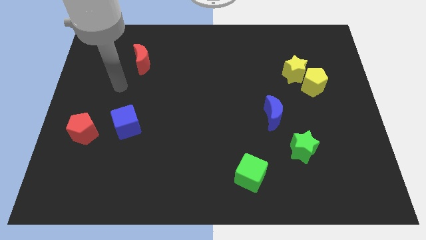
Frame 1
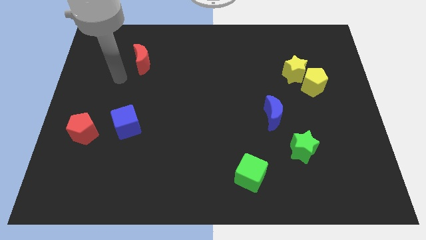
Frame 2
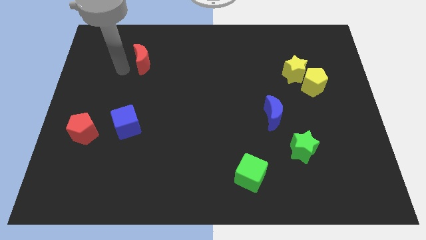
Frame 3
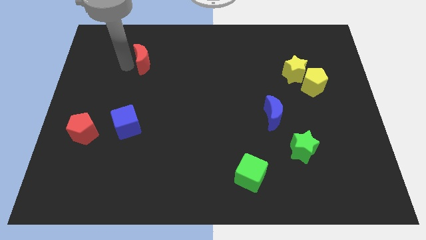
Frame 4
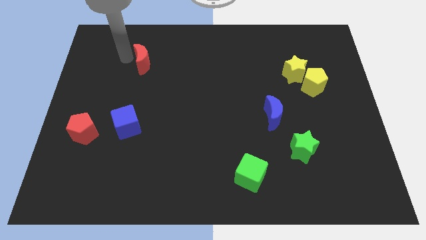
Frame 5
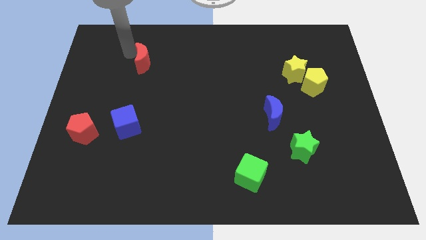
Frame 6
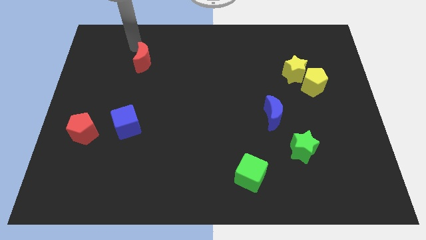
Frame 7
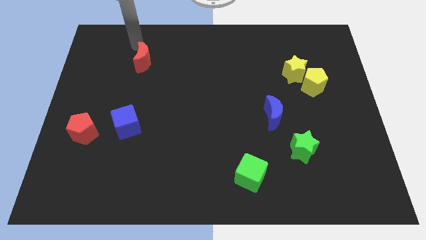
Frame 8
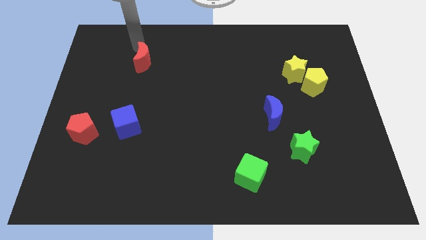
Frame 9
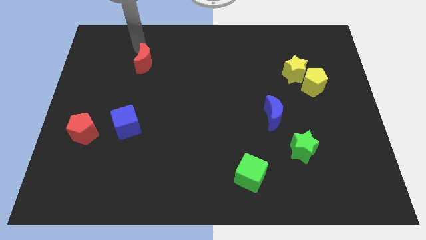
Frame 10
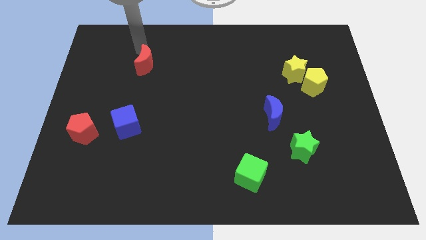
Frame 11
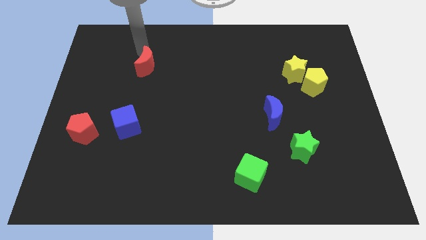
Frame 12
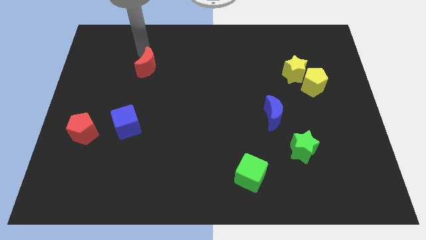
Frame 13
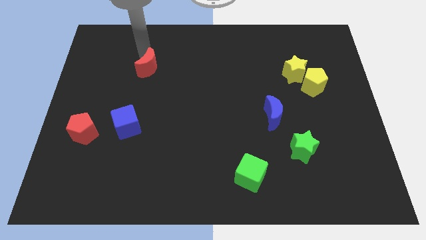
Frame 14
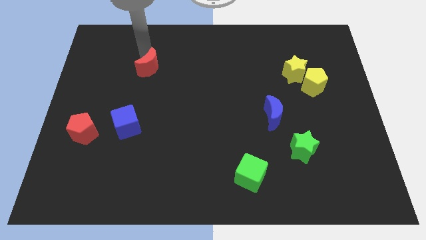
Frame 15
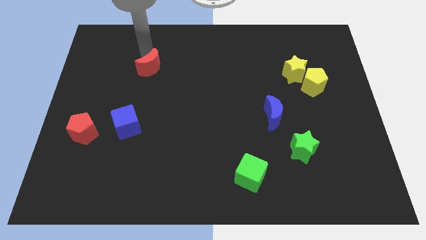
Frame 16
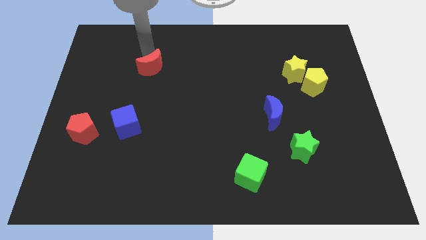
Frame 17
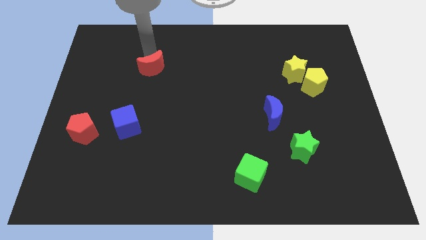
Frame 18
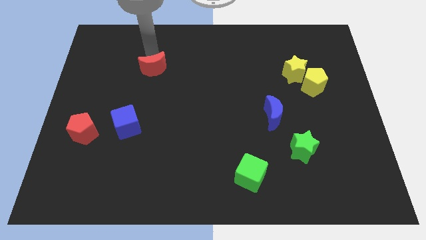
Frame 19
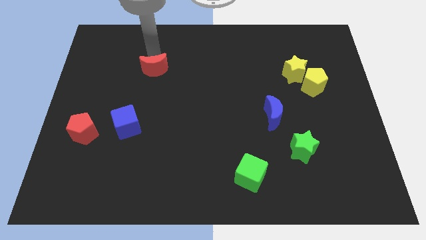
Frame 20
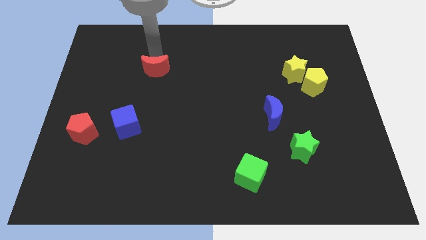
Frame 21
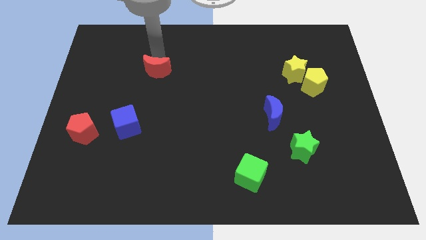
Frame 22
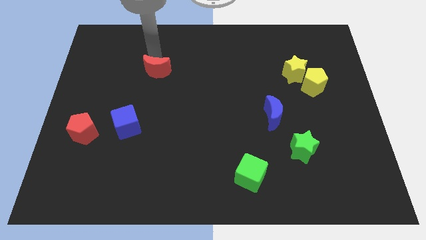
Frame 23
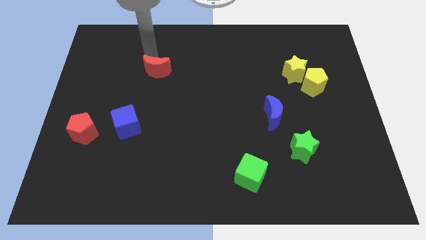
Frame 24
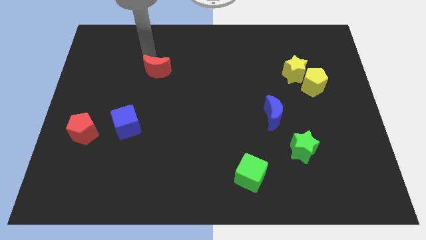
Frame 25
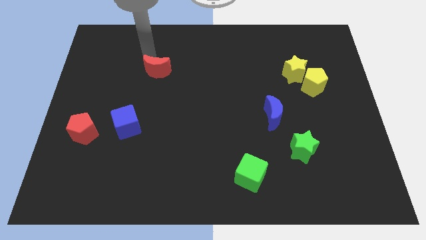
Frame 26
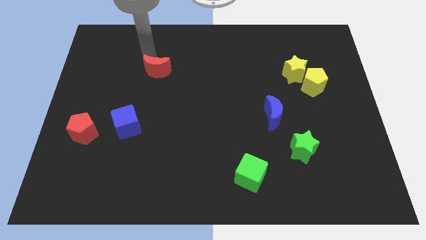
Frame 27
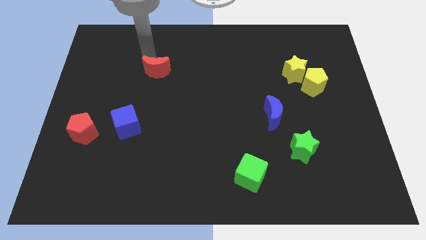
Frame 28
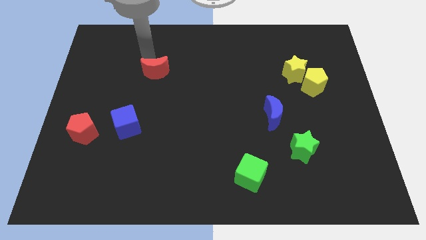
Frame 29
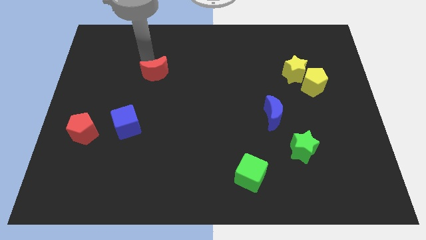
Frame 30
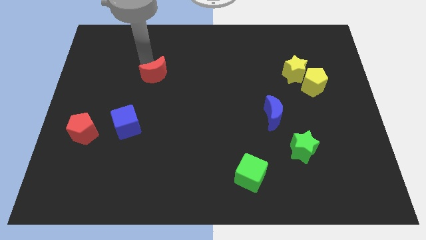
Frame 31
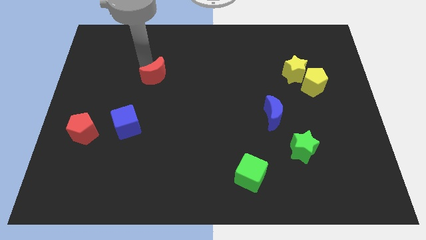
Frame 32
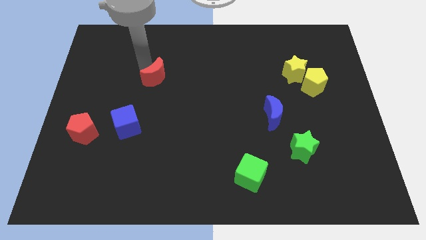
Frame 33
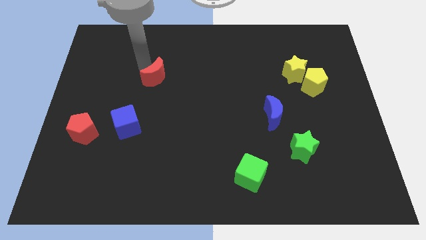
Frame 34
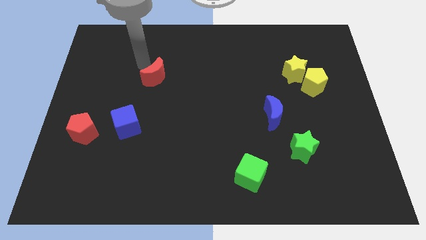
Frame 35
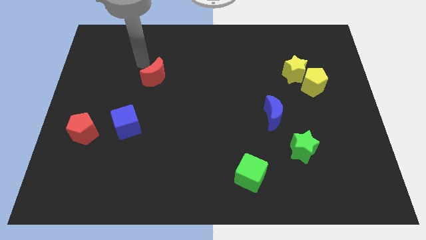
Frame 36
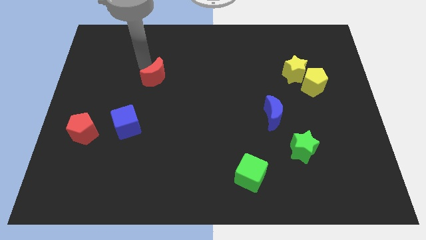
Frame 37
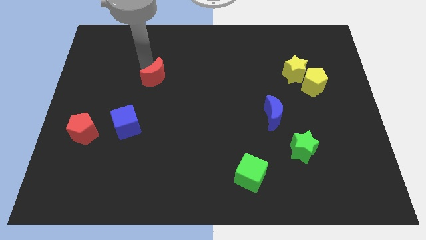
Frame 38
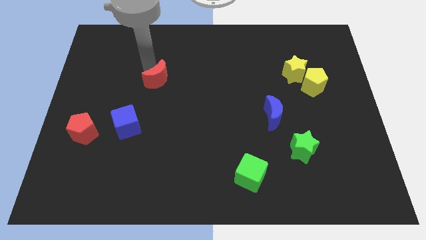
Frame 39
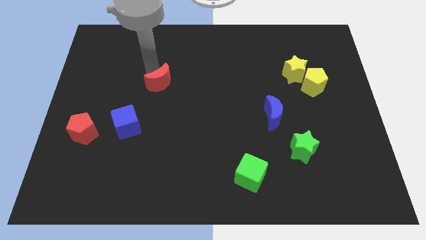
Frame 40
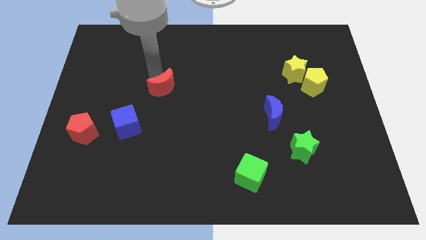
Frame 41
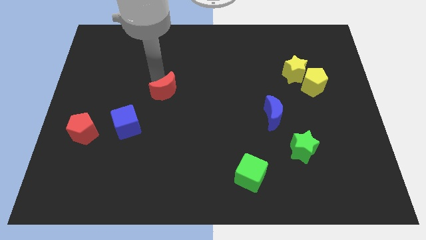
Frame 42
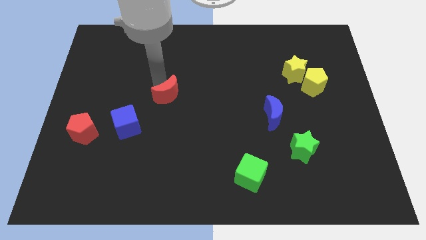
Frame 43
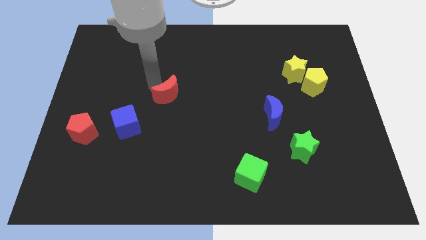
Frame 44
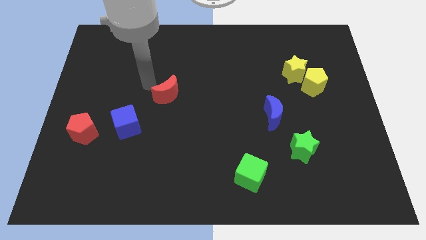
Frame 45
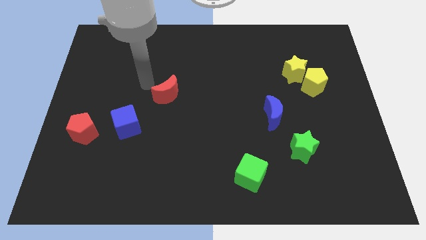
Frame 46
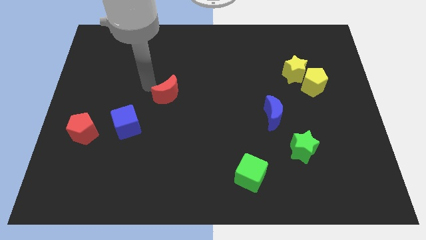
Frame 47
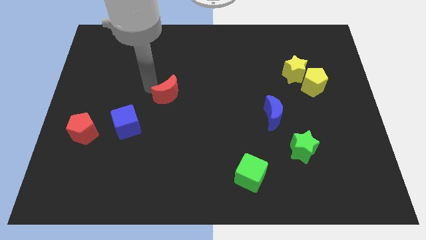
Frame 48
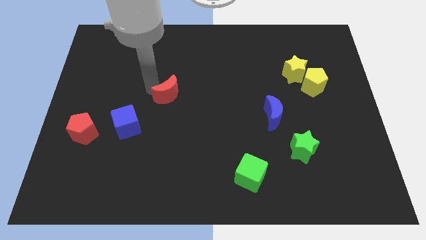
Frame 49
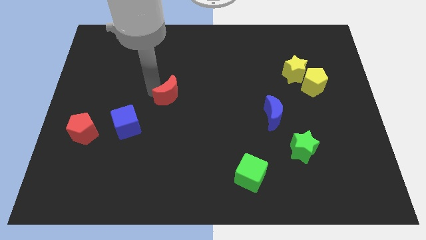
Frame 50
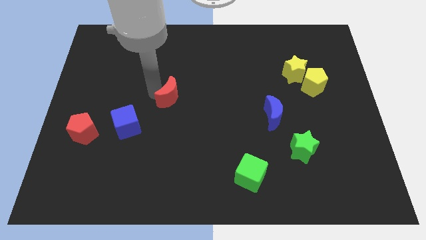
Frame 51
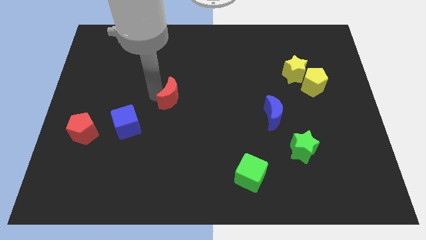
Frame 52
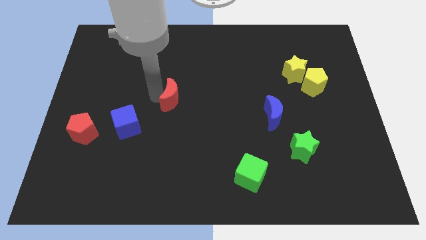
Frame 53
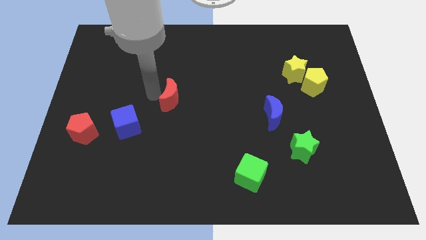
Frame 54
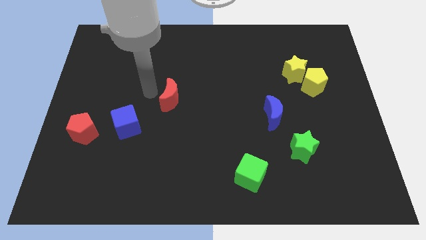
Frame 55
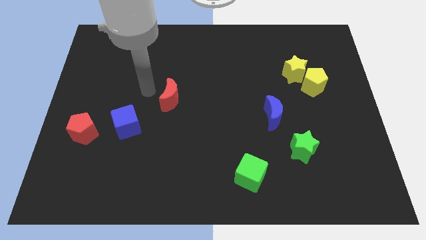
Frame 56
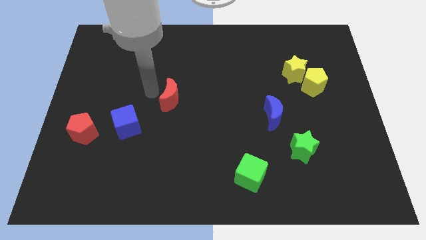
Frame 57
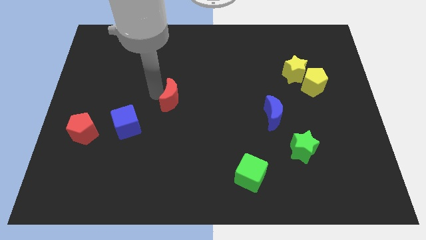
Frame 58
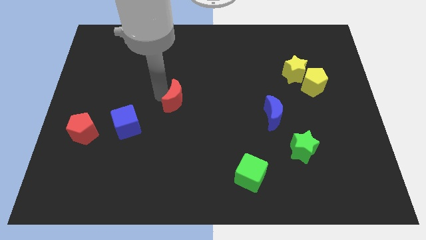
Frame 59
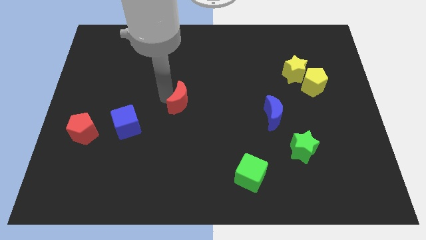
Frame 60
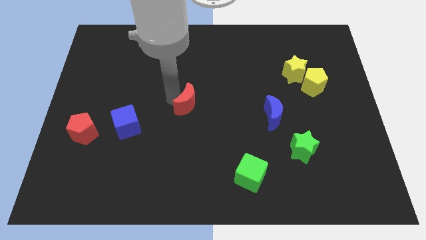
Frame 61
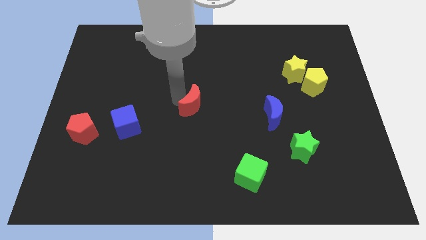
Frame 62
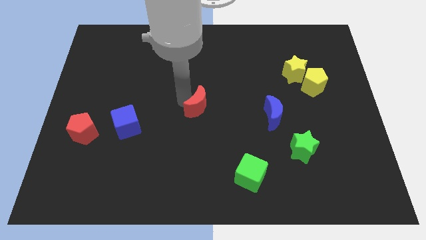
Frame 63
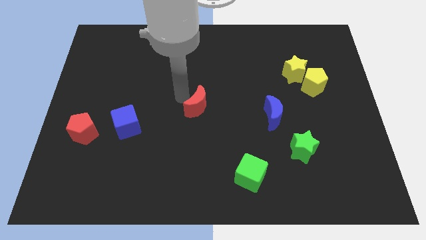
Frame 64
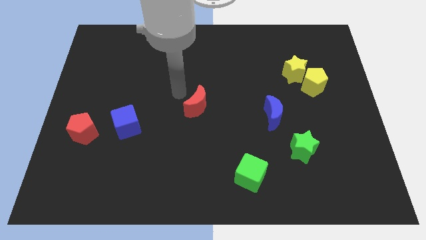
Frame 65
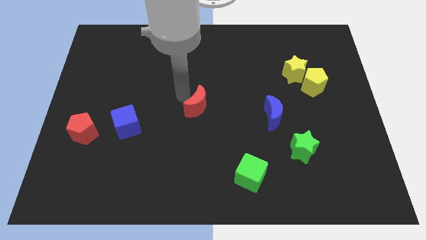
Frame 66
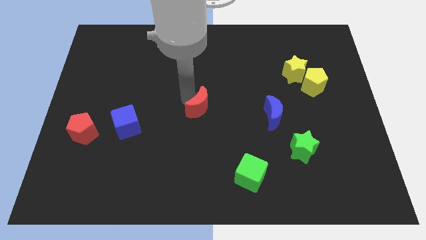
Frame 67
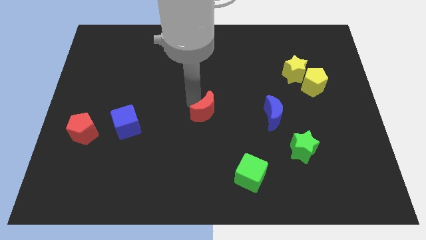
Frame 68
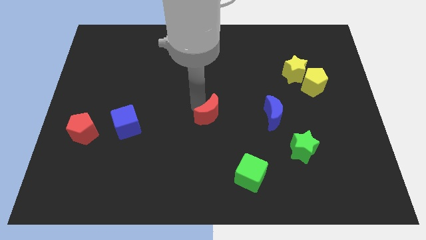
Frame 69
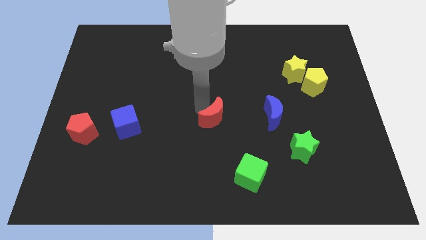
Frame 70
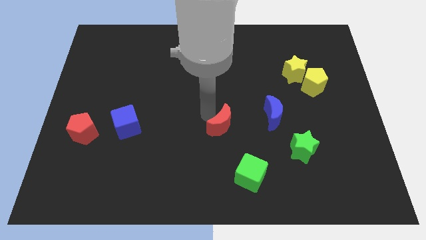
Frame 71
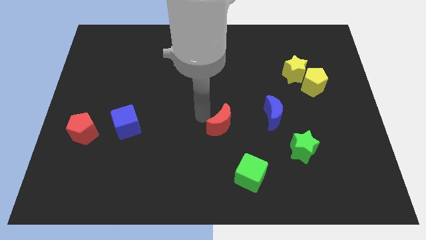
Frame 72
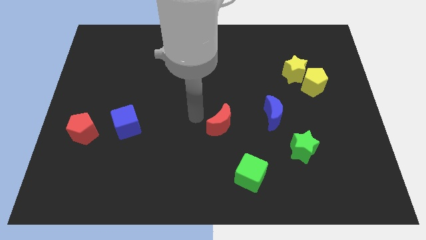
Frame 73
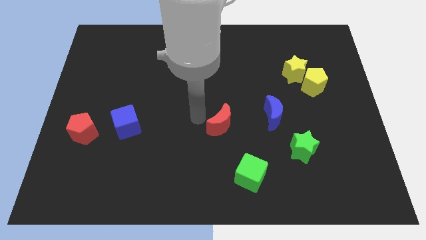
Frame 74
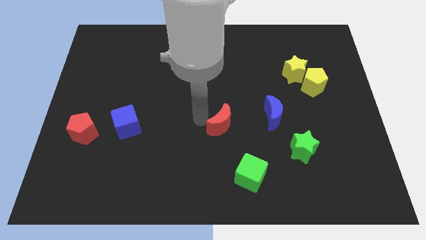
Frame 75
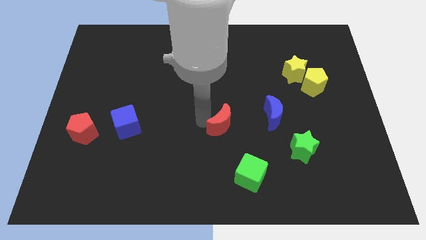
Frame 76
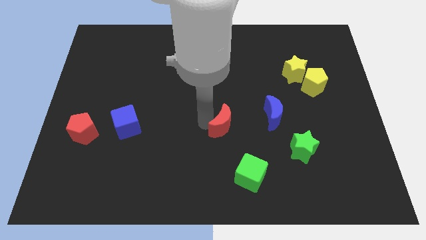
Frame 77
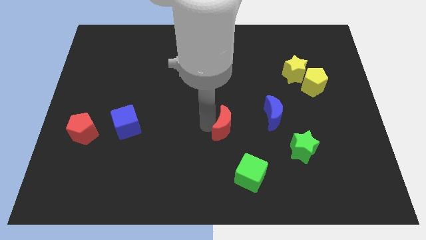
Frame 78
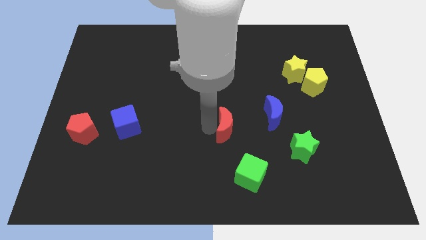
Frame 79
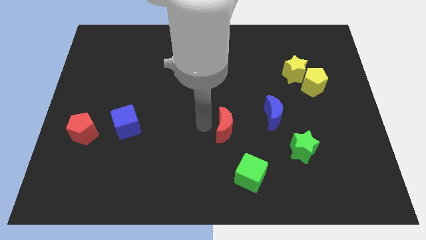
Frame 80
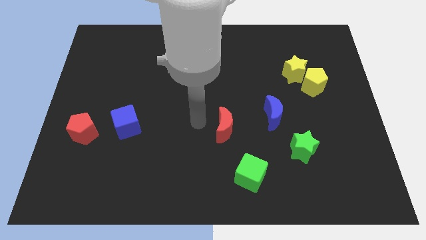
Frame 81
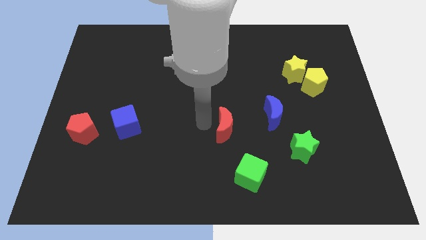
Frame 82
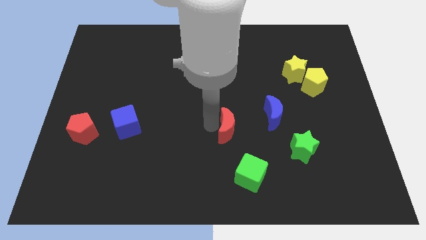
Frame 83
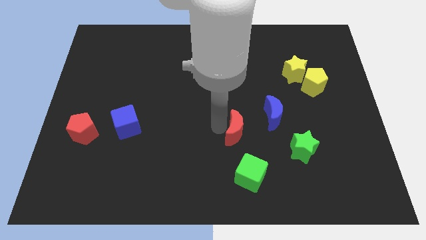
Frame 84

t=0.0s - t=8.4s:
slide the red moon to the bottom left side of the blue moon
